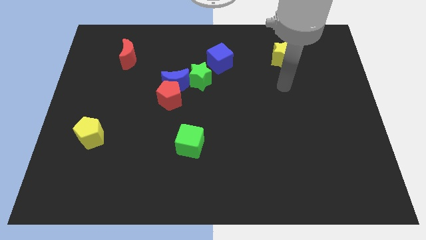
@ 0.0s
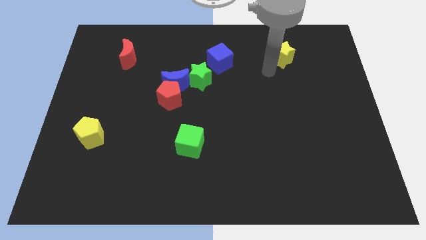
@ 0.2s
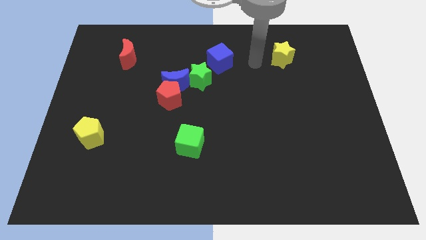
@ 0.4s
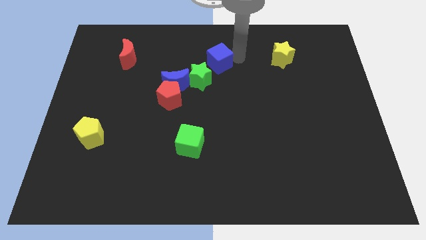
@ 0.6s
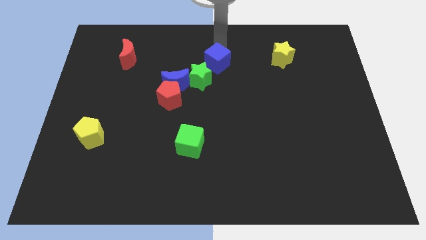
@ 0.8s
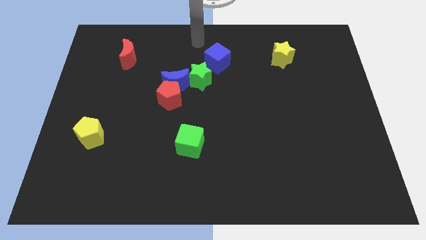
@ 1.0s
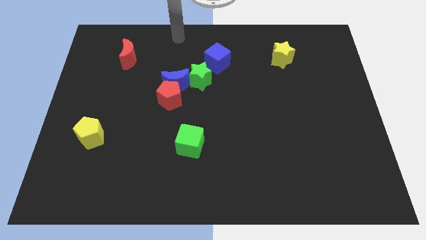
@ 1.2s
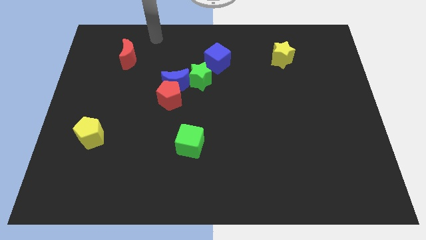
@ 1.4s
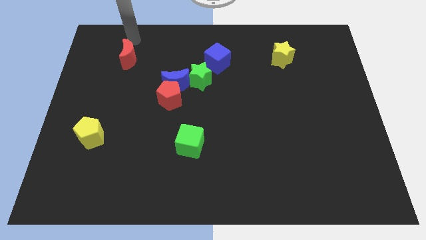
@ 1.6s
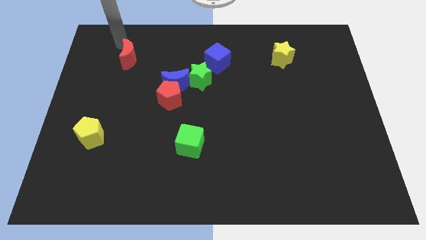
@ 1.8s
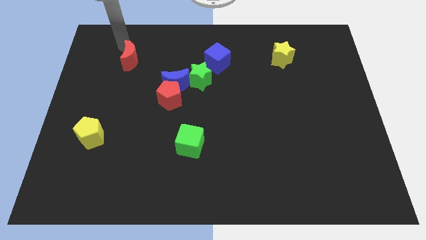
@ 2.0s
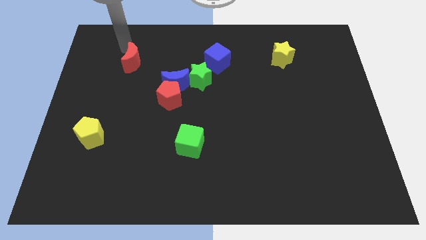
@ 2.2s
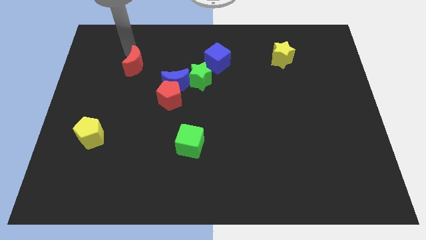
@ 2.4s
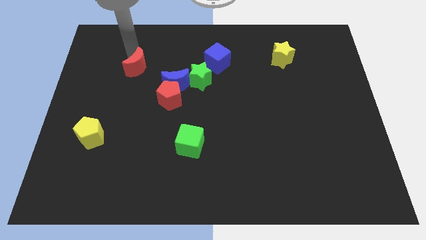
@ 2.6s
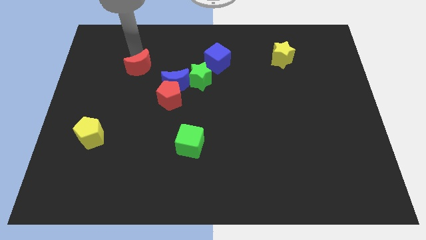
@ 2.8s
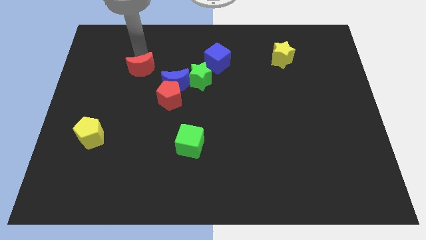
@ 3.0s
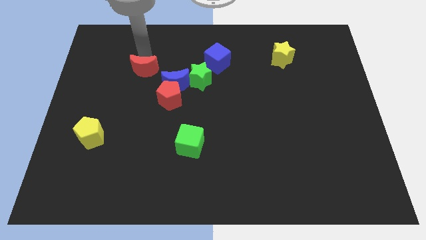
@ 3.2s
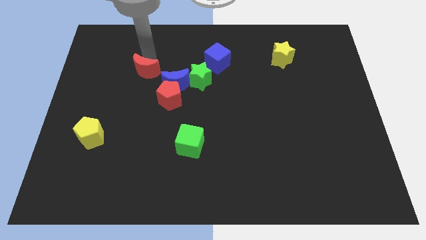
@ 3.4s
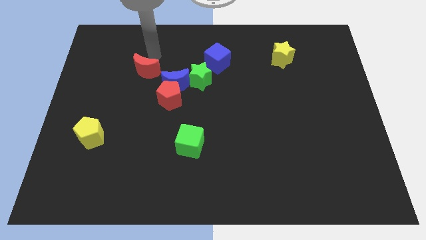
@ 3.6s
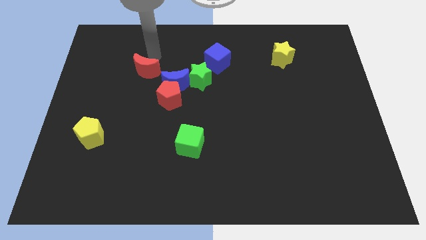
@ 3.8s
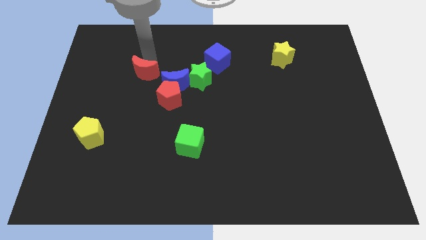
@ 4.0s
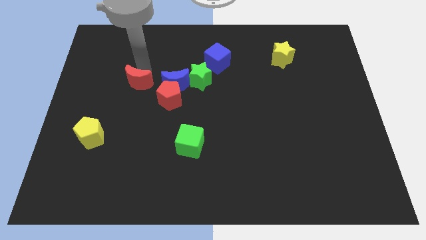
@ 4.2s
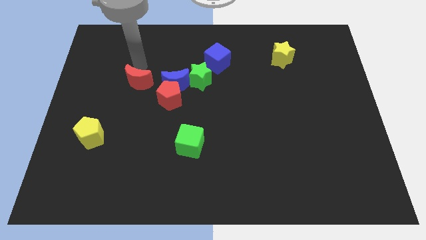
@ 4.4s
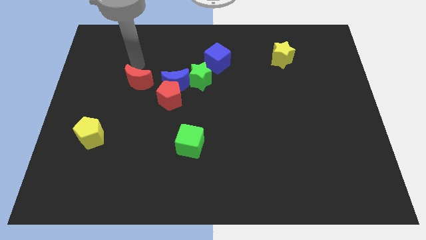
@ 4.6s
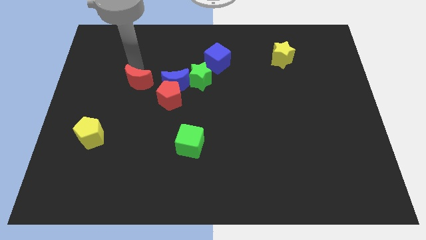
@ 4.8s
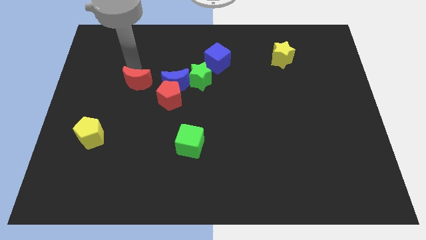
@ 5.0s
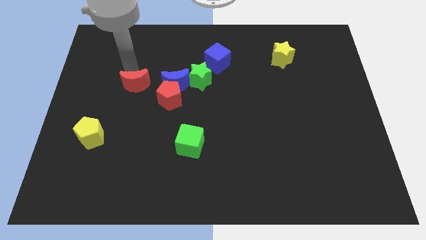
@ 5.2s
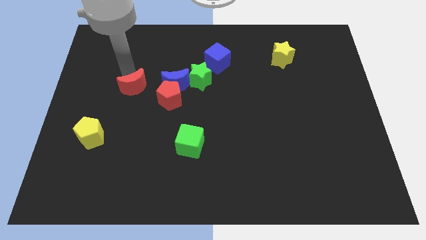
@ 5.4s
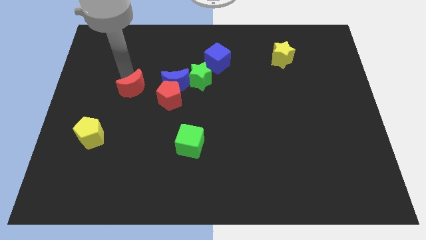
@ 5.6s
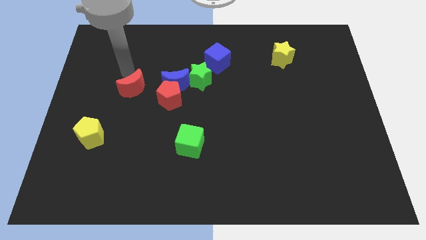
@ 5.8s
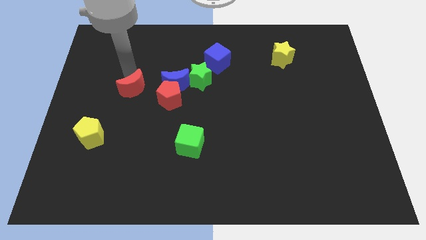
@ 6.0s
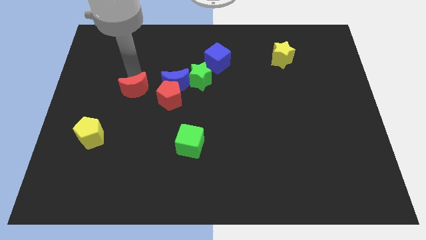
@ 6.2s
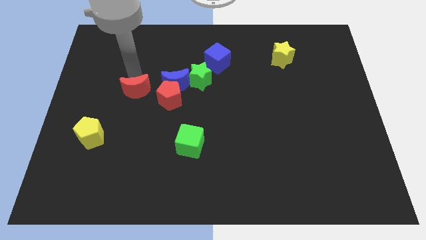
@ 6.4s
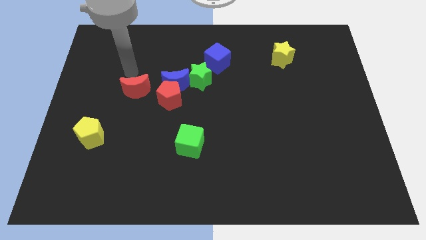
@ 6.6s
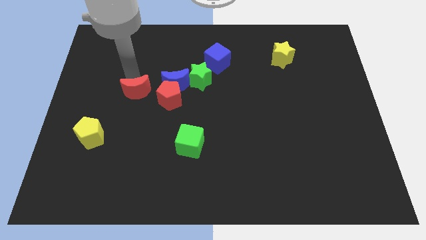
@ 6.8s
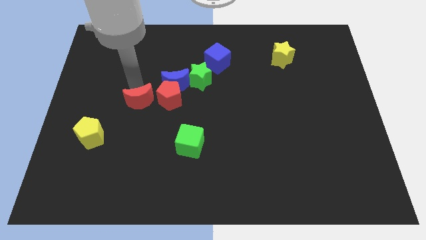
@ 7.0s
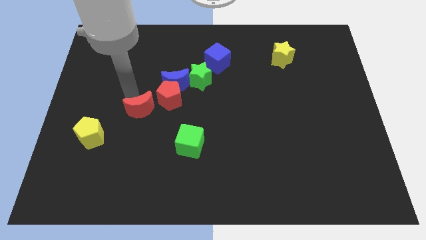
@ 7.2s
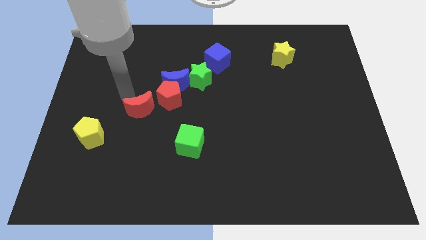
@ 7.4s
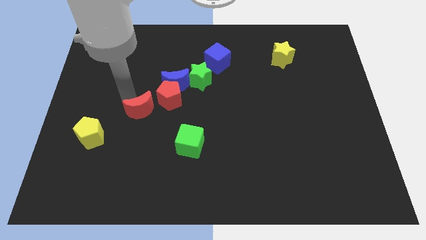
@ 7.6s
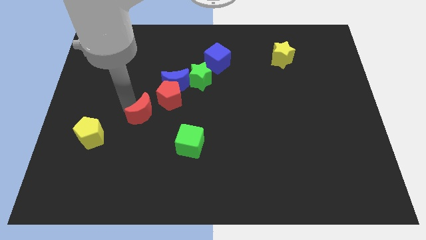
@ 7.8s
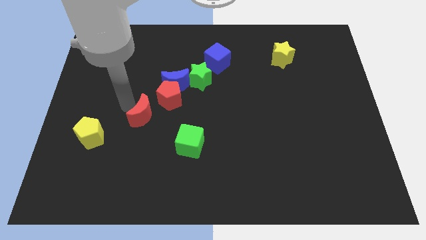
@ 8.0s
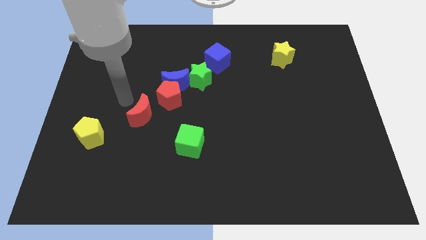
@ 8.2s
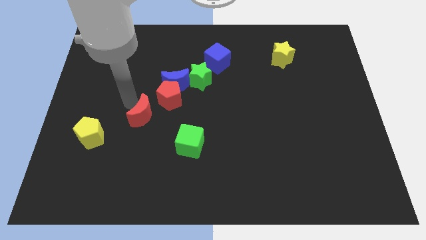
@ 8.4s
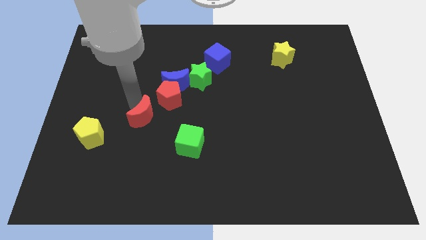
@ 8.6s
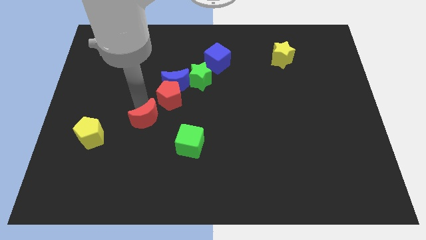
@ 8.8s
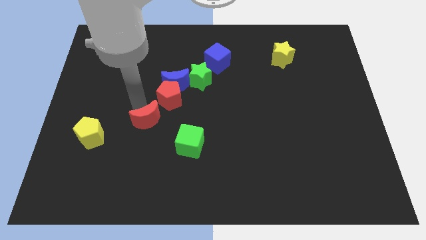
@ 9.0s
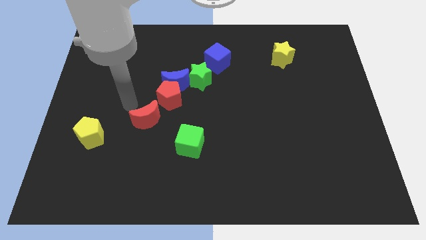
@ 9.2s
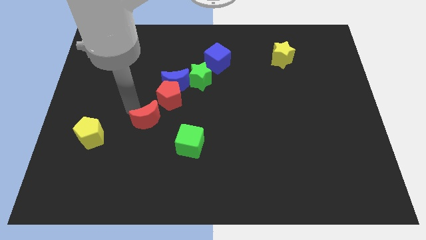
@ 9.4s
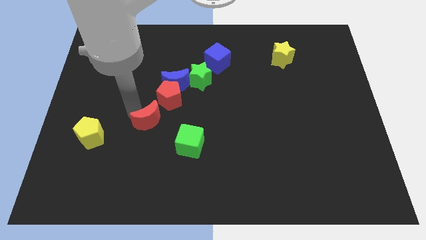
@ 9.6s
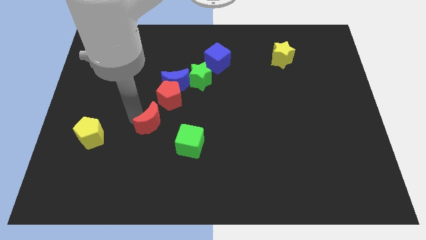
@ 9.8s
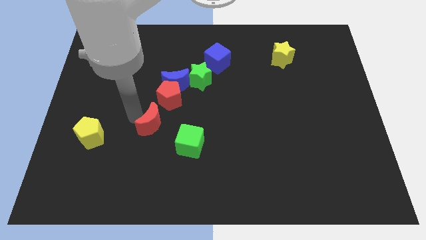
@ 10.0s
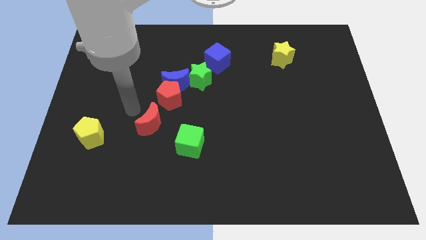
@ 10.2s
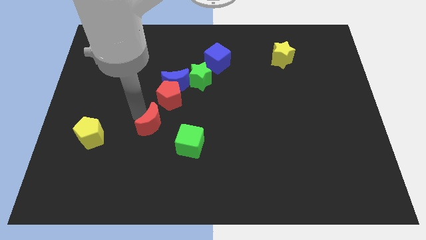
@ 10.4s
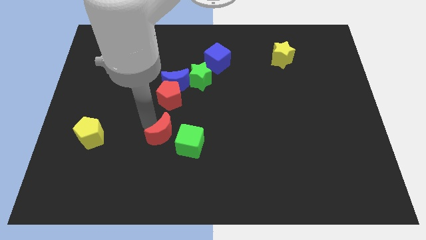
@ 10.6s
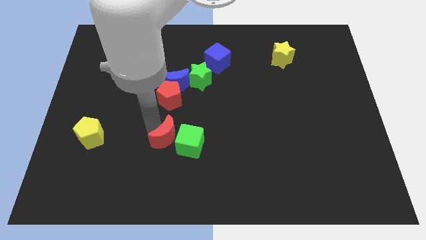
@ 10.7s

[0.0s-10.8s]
push the red moon next to the green cube

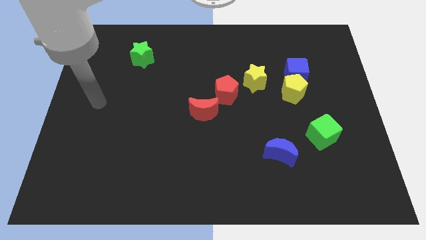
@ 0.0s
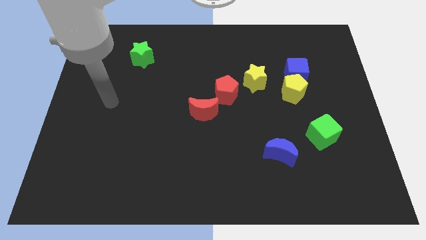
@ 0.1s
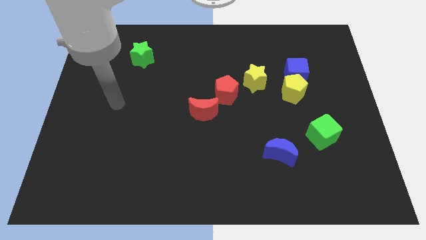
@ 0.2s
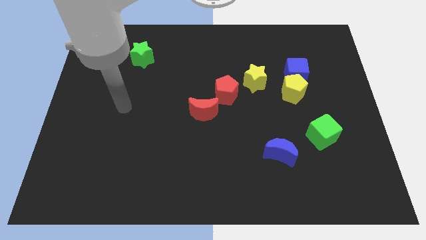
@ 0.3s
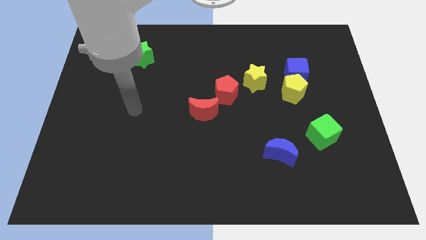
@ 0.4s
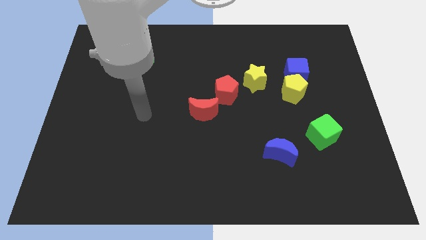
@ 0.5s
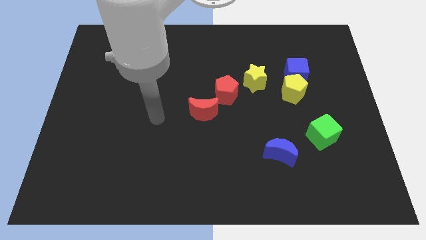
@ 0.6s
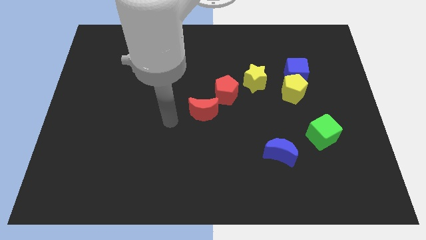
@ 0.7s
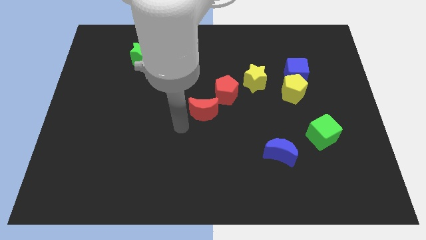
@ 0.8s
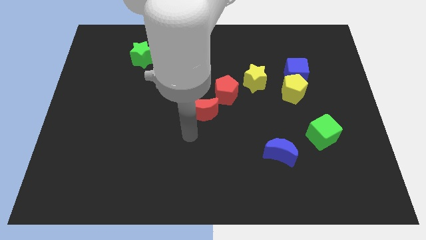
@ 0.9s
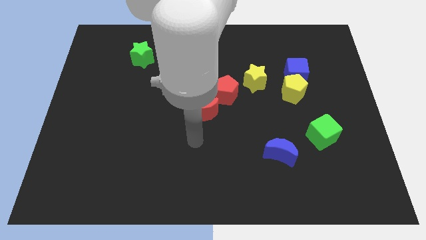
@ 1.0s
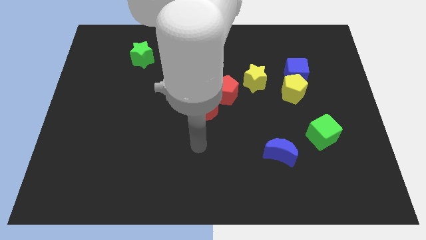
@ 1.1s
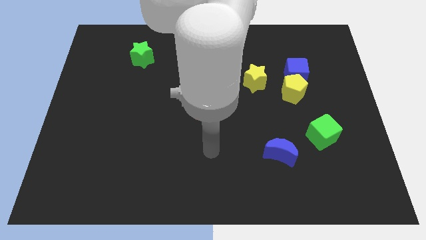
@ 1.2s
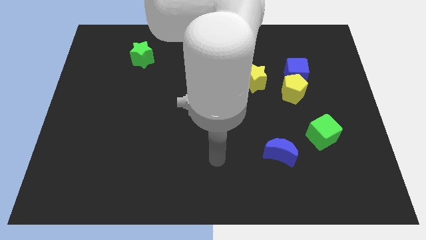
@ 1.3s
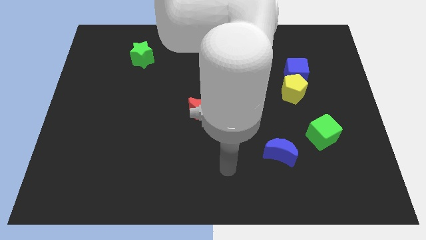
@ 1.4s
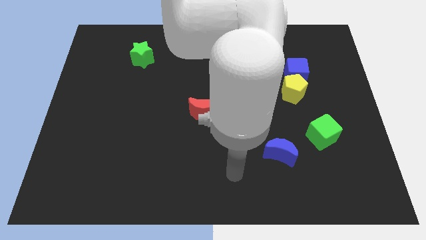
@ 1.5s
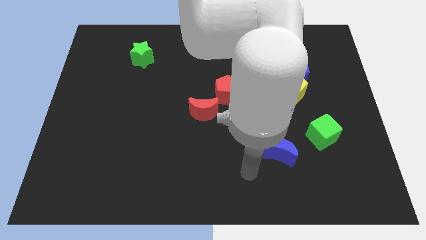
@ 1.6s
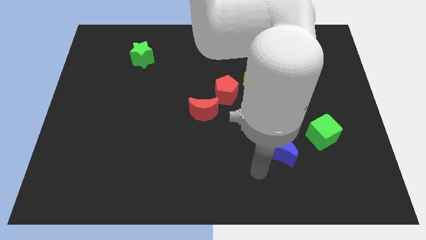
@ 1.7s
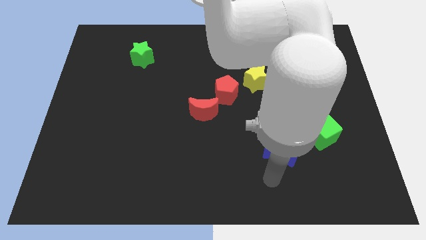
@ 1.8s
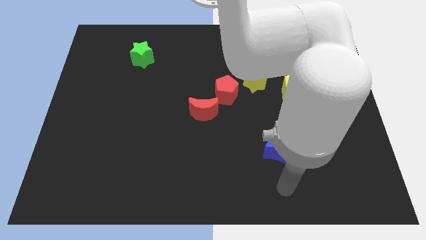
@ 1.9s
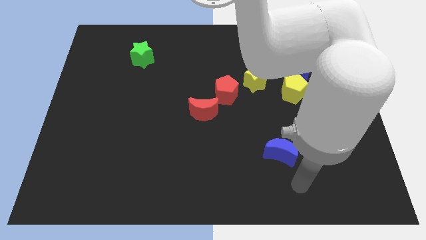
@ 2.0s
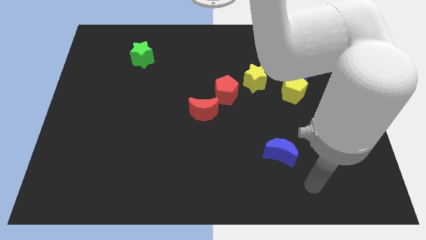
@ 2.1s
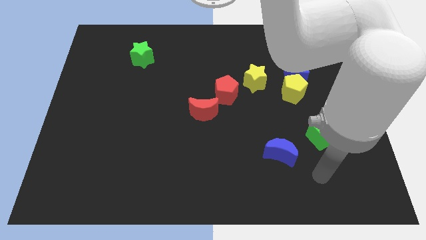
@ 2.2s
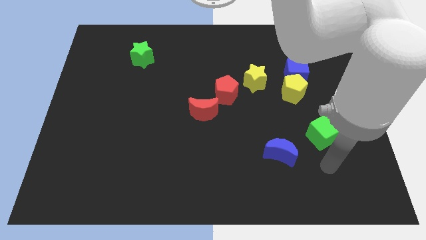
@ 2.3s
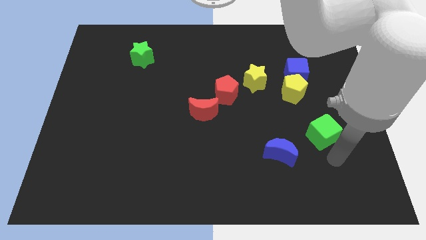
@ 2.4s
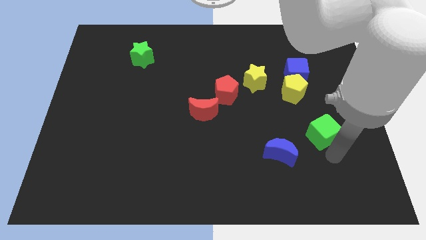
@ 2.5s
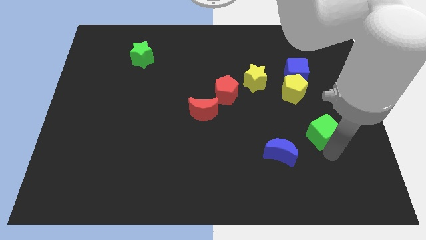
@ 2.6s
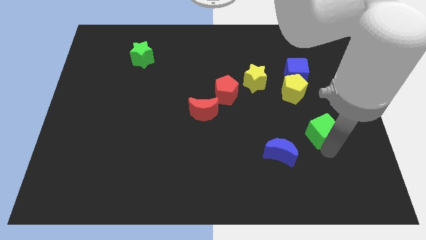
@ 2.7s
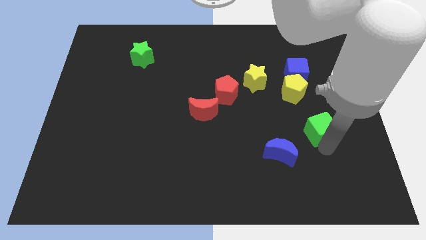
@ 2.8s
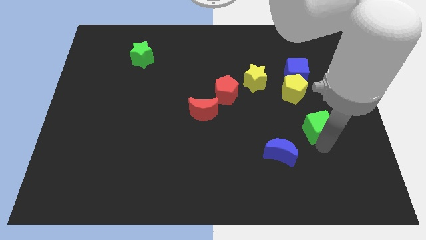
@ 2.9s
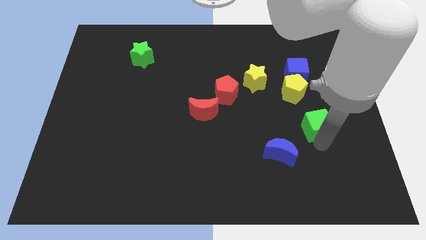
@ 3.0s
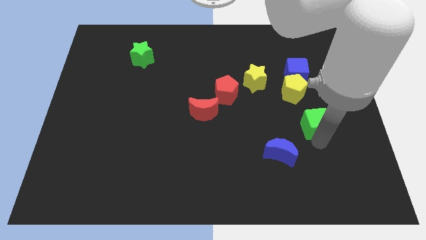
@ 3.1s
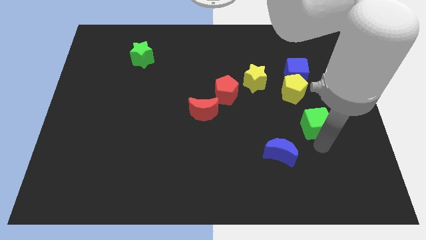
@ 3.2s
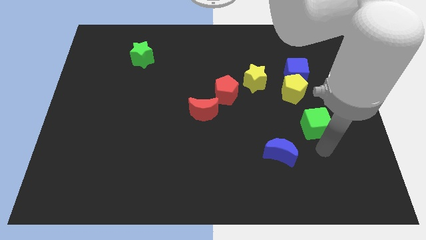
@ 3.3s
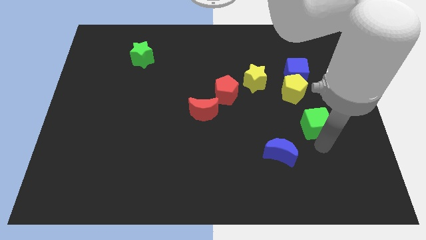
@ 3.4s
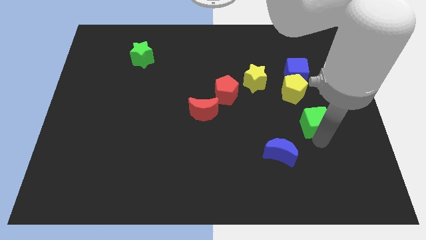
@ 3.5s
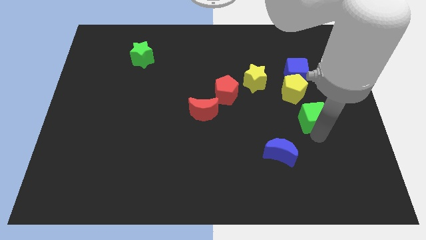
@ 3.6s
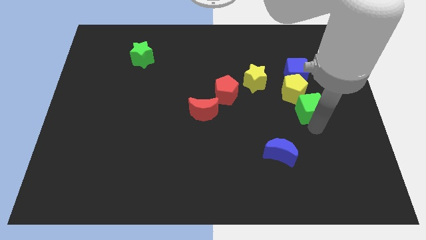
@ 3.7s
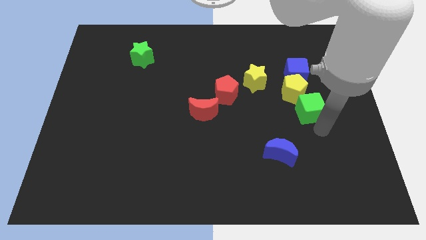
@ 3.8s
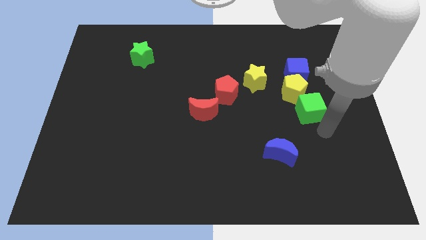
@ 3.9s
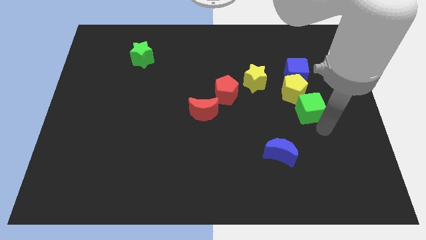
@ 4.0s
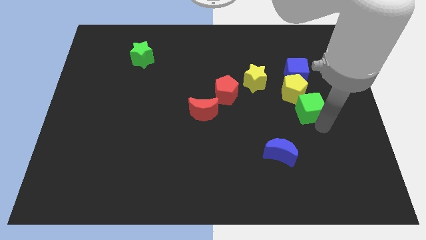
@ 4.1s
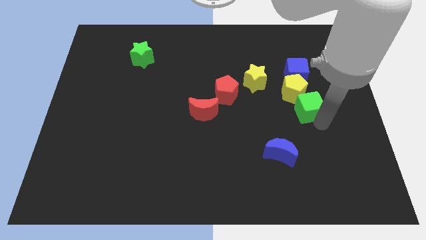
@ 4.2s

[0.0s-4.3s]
put the green cube towards the yellow pentagon
